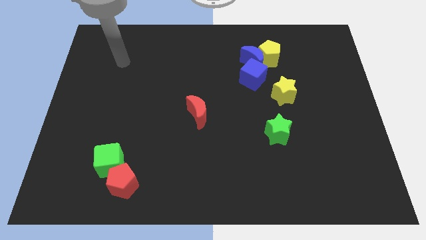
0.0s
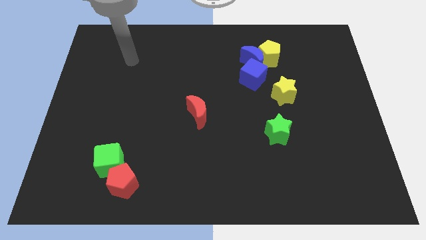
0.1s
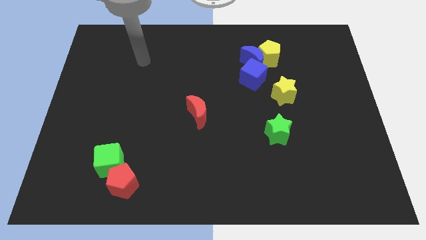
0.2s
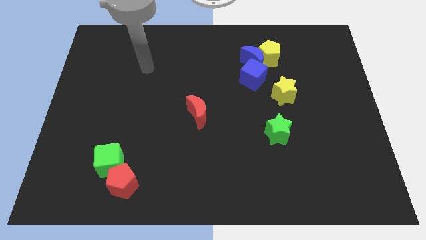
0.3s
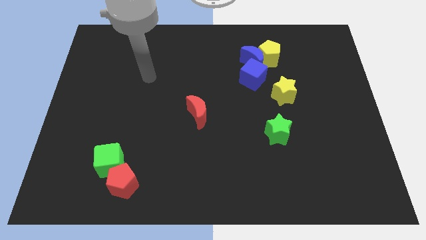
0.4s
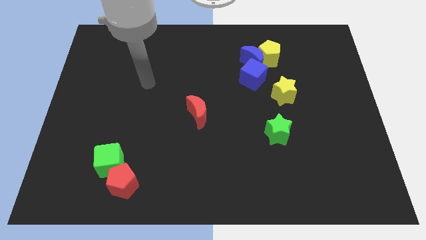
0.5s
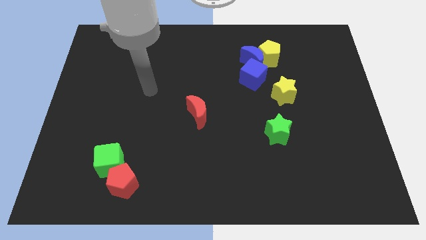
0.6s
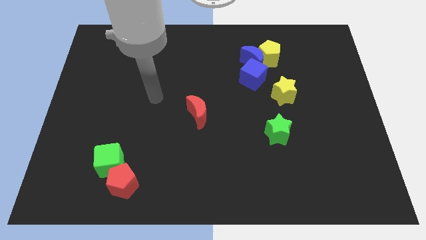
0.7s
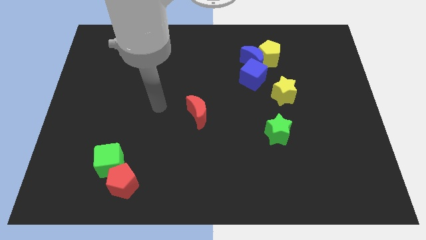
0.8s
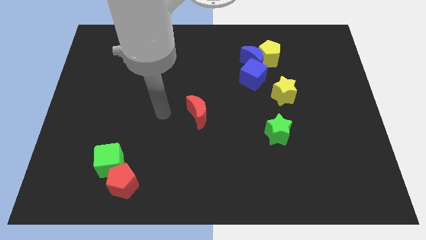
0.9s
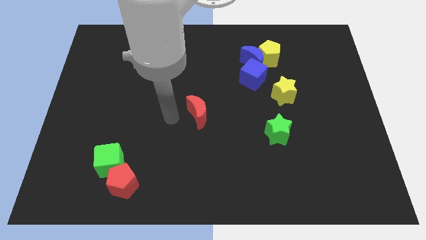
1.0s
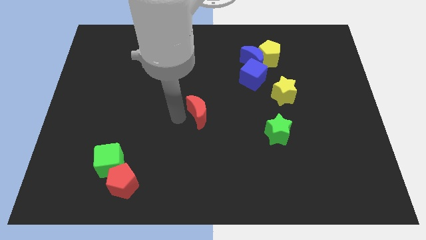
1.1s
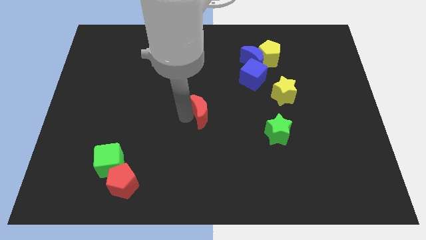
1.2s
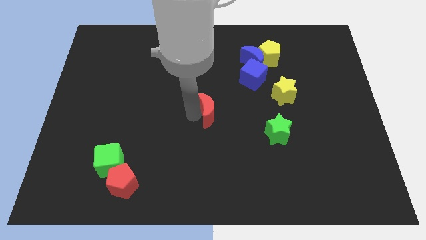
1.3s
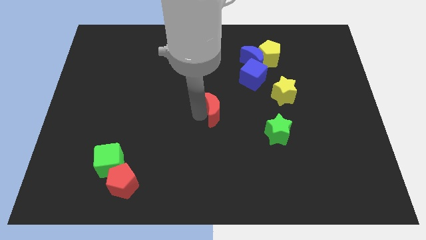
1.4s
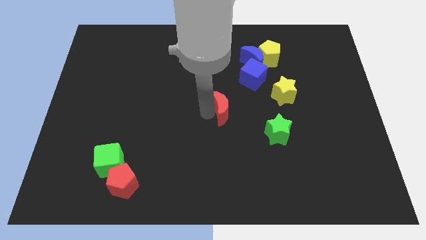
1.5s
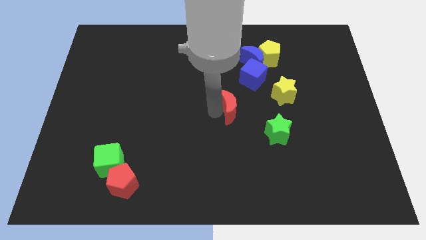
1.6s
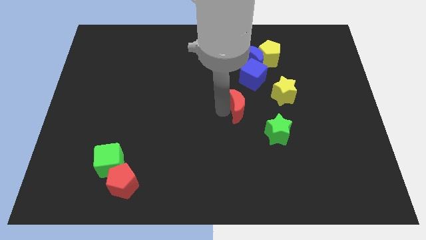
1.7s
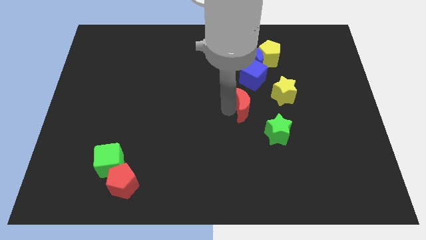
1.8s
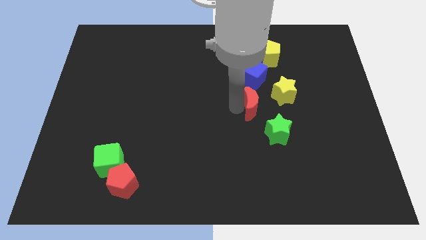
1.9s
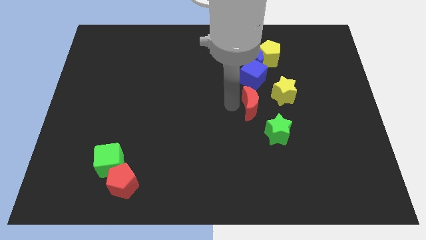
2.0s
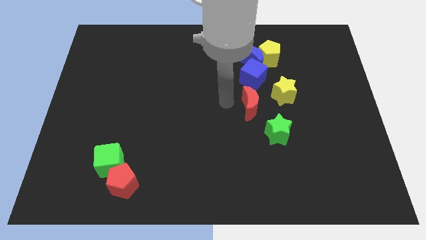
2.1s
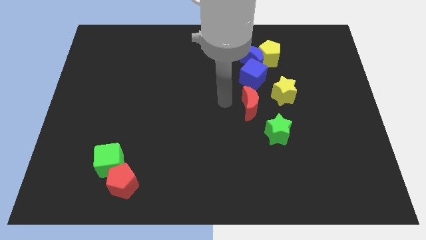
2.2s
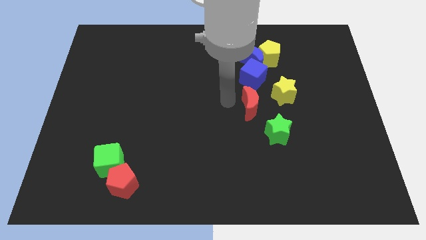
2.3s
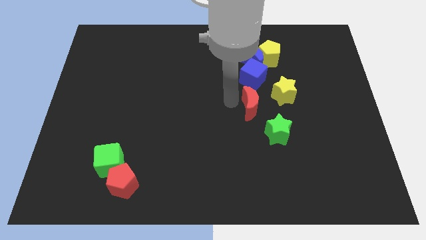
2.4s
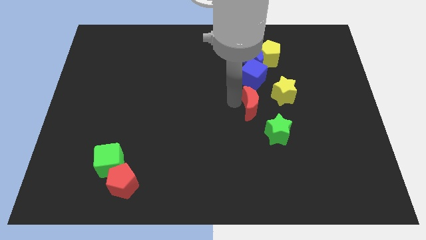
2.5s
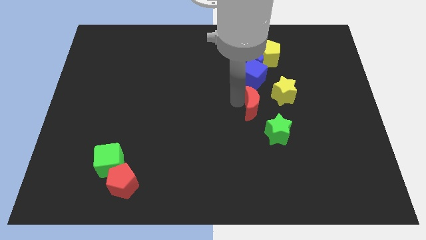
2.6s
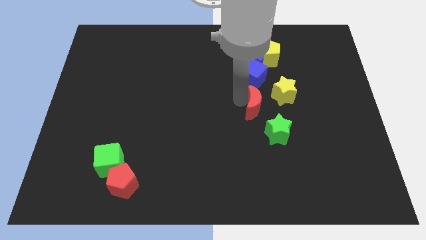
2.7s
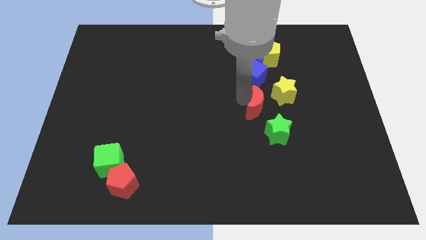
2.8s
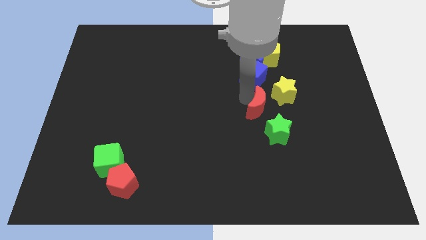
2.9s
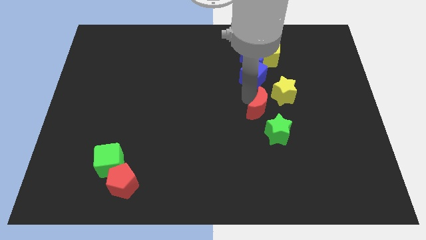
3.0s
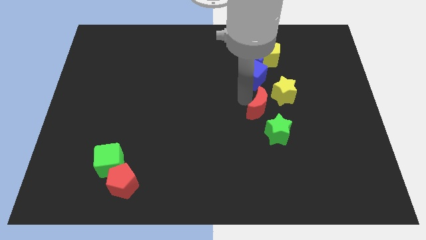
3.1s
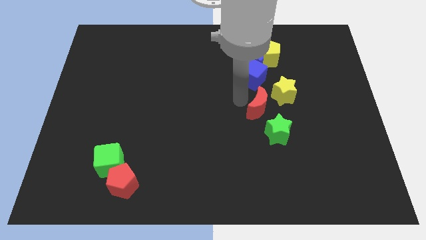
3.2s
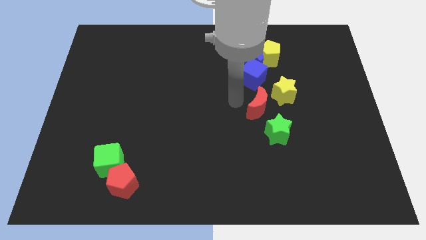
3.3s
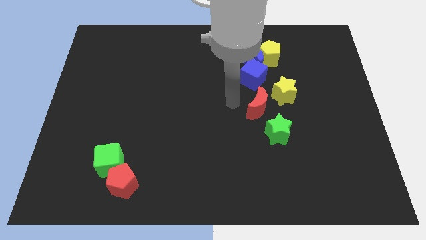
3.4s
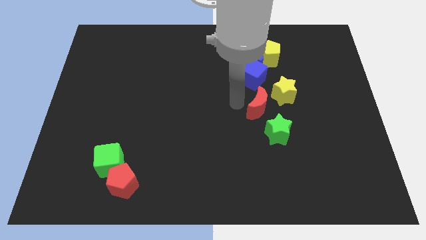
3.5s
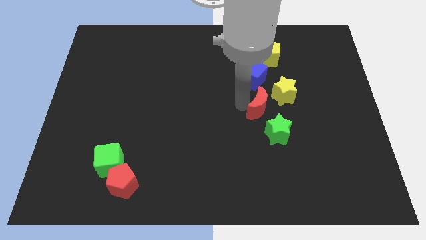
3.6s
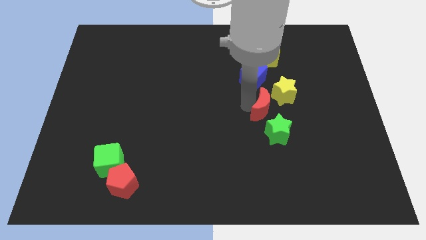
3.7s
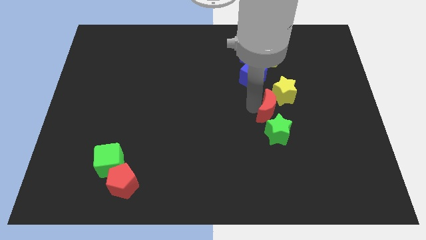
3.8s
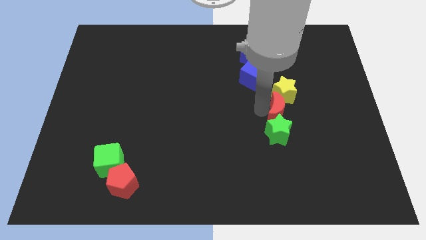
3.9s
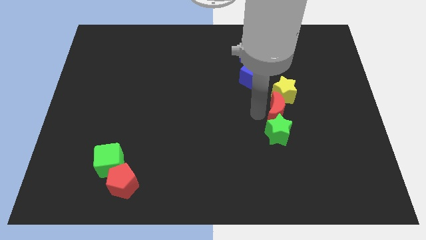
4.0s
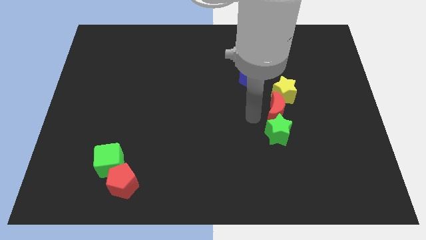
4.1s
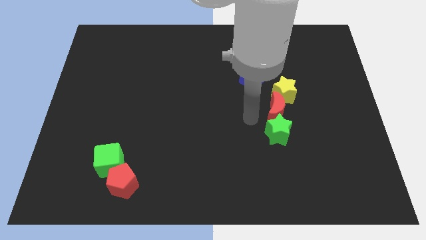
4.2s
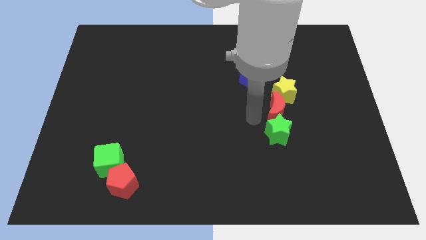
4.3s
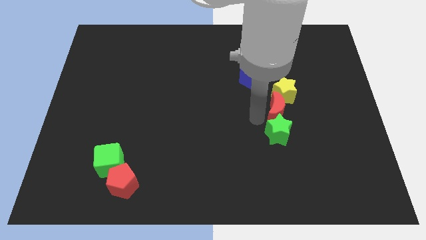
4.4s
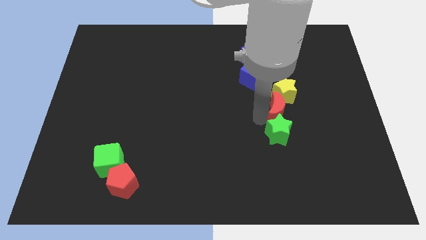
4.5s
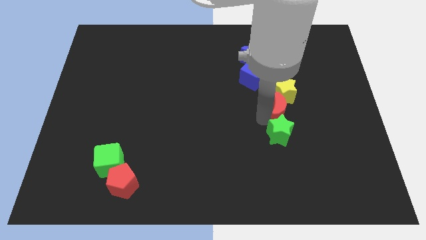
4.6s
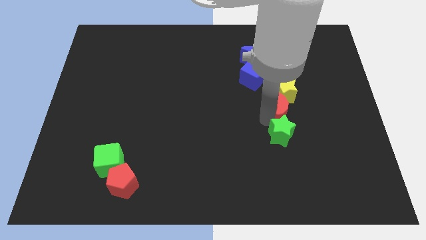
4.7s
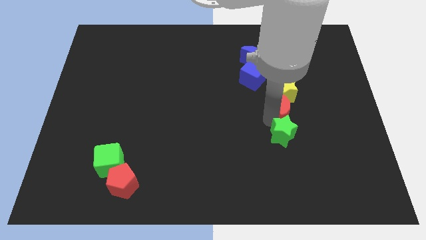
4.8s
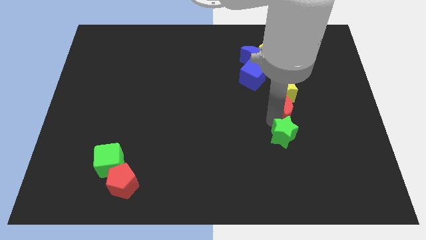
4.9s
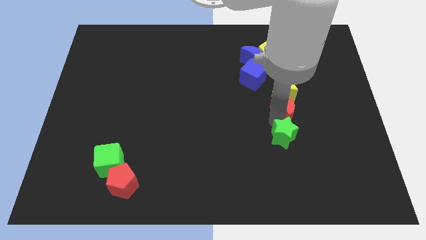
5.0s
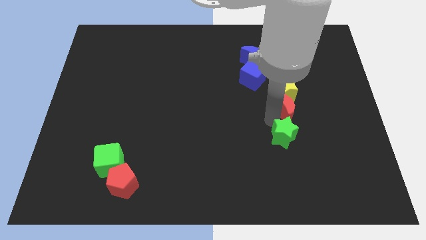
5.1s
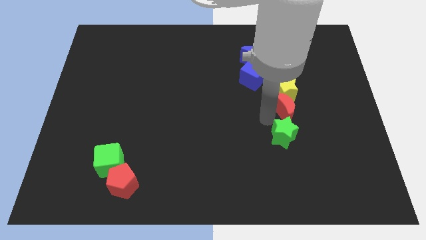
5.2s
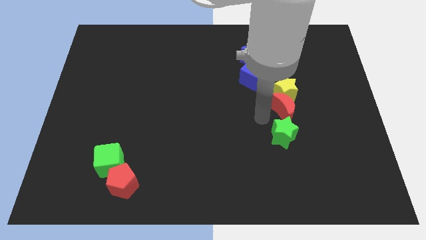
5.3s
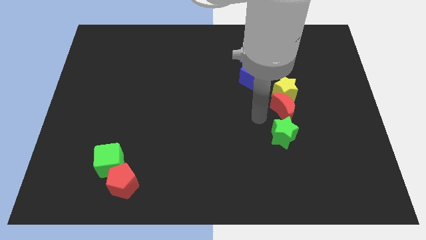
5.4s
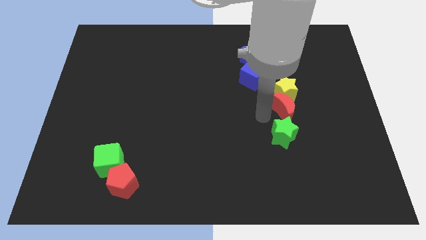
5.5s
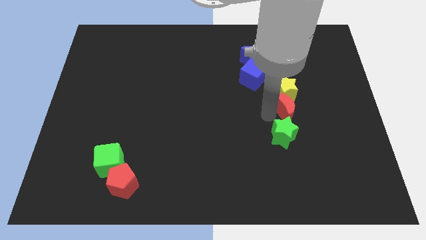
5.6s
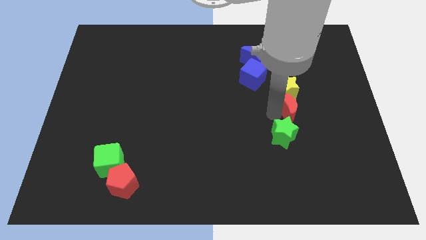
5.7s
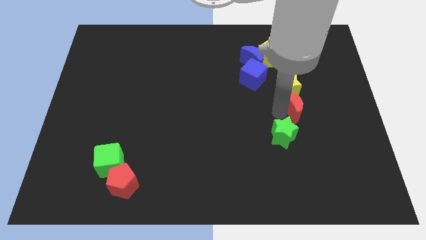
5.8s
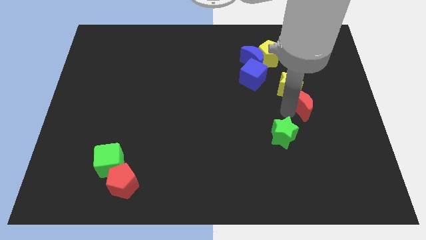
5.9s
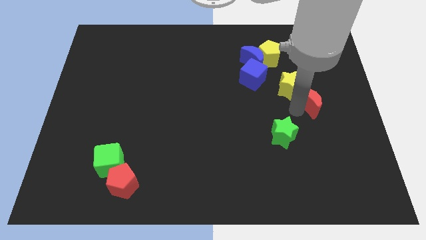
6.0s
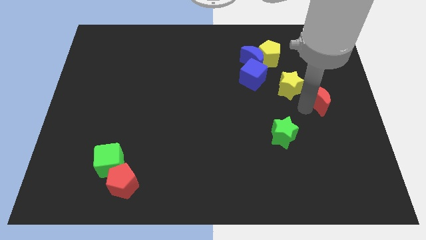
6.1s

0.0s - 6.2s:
push the red moon to the right of the yellow star

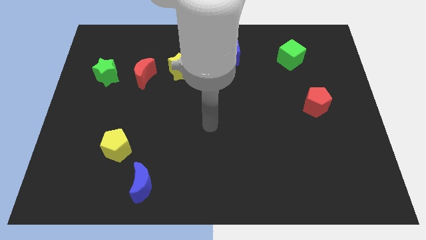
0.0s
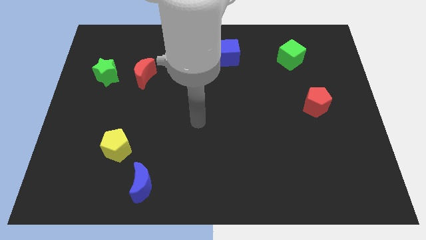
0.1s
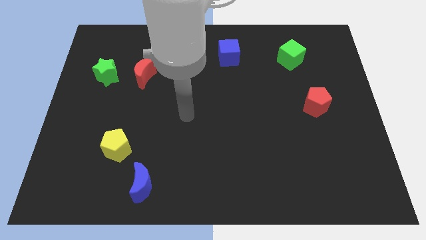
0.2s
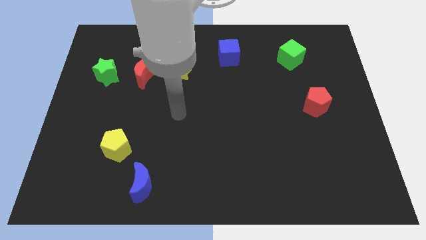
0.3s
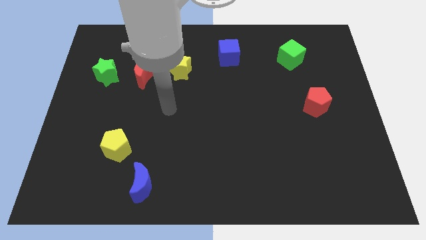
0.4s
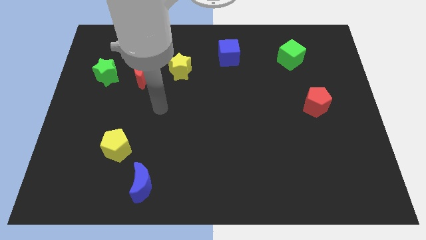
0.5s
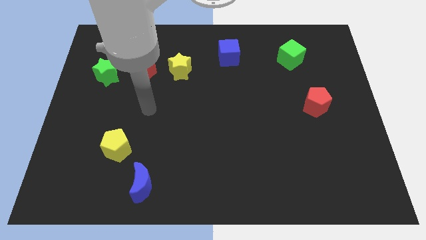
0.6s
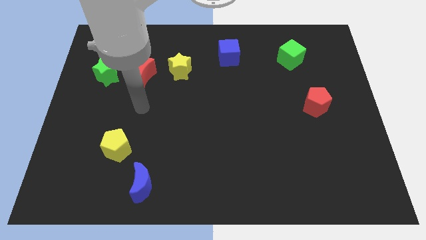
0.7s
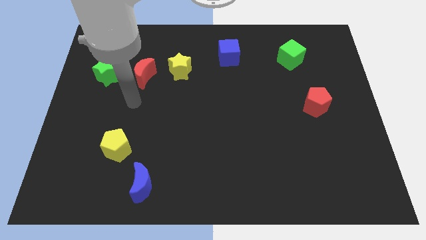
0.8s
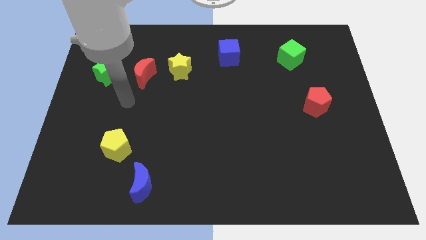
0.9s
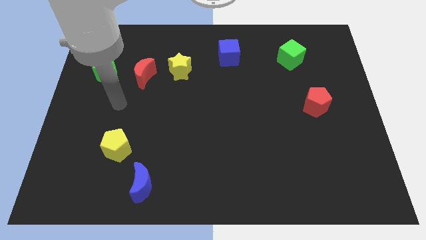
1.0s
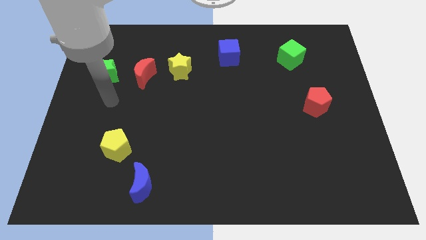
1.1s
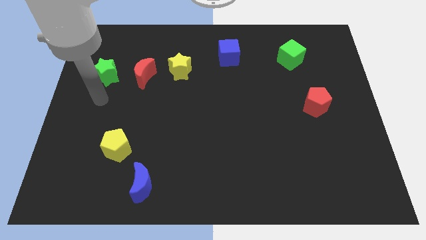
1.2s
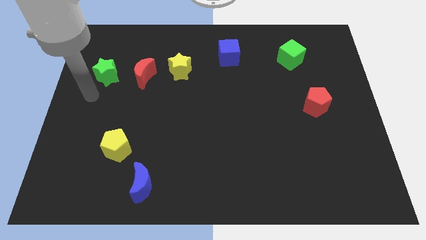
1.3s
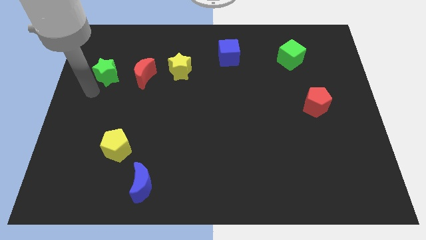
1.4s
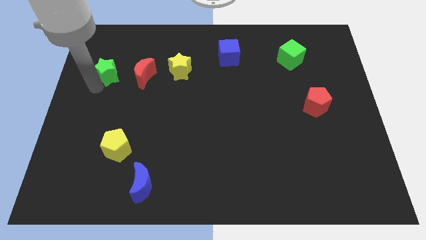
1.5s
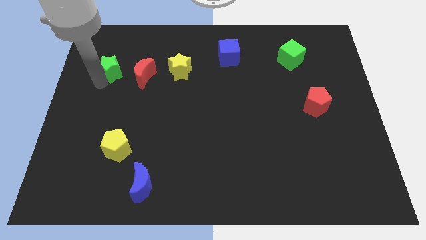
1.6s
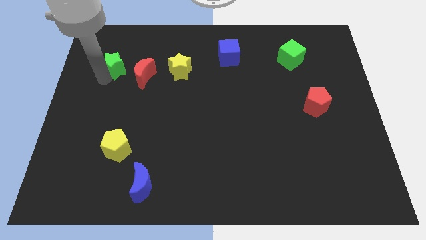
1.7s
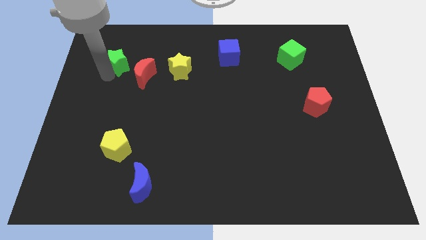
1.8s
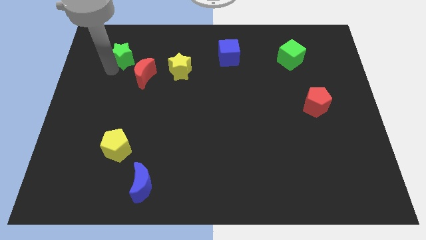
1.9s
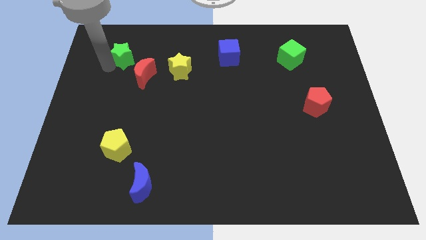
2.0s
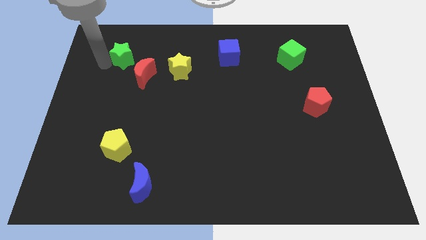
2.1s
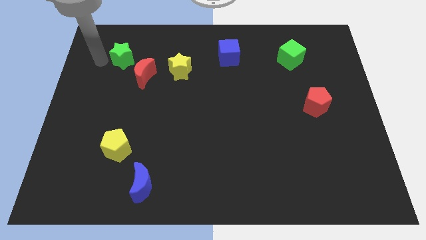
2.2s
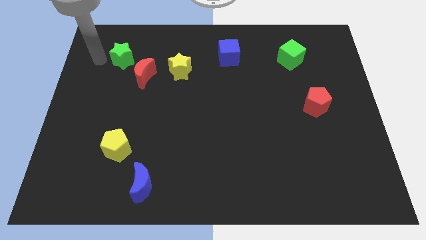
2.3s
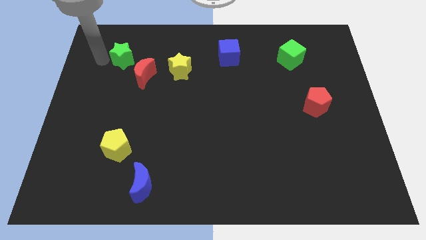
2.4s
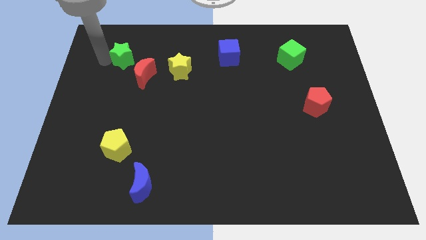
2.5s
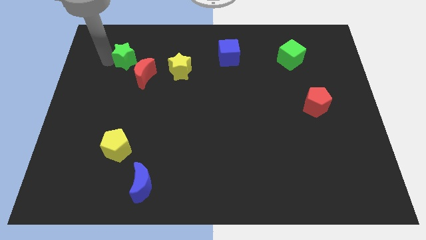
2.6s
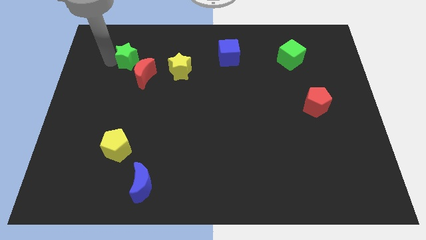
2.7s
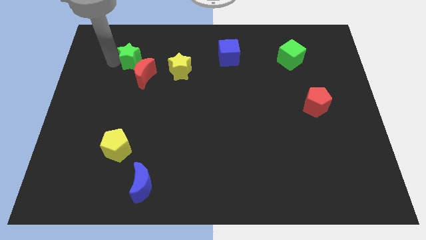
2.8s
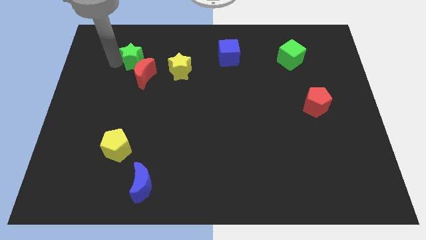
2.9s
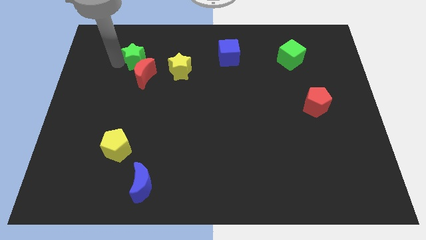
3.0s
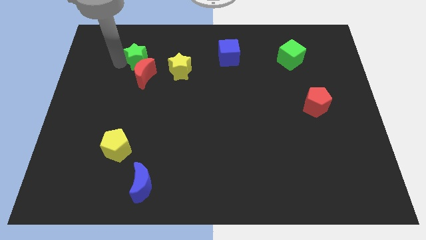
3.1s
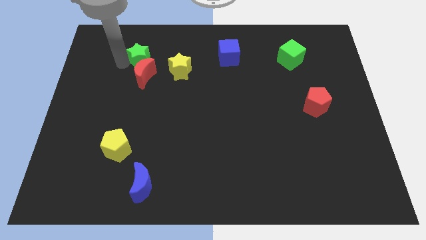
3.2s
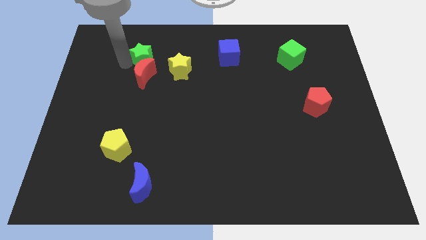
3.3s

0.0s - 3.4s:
slide the green star to the top left of the yellow star
